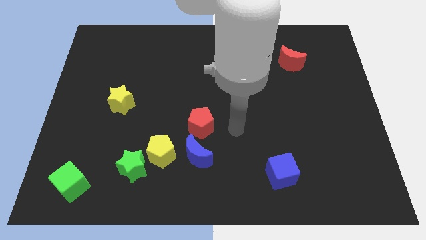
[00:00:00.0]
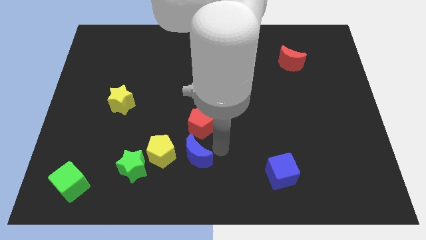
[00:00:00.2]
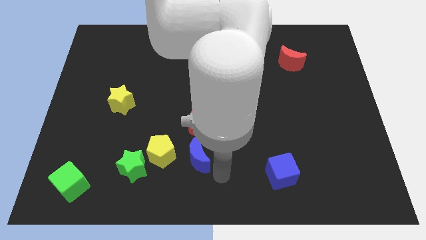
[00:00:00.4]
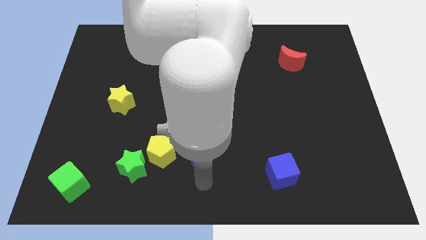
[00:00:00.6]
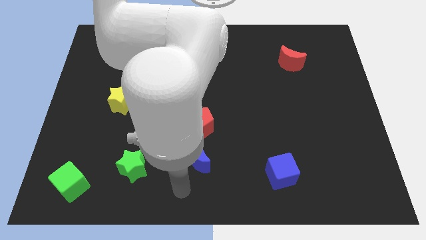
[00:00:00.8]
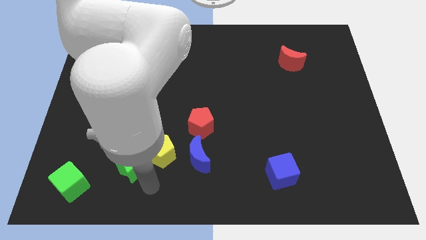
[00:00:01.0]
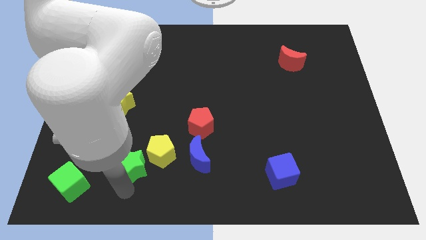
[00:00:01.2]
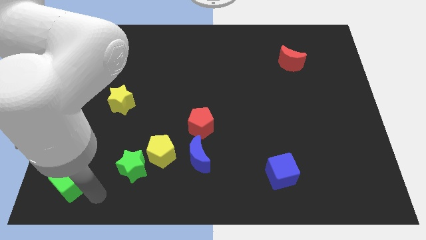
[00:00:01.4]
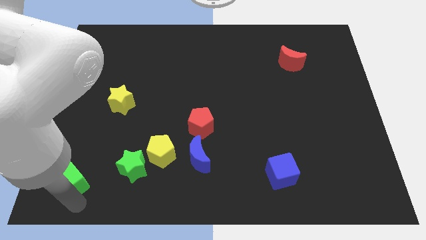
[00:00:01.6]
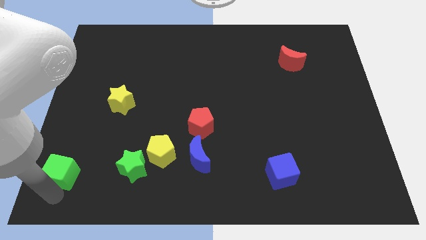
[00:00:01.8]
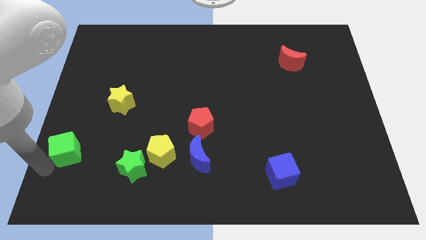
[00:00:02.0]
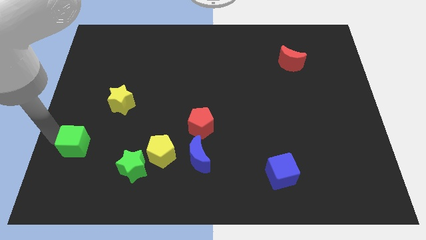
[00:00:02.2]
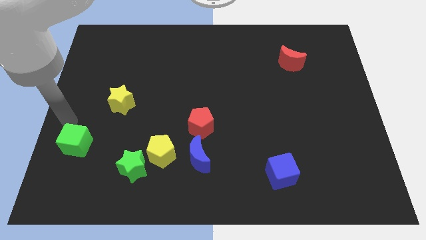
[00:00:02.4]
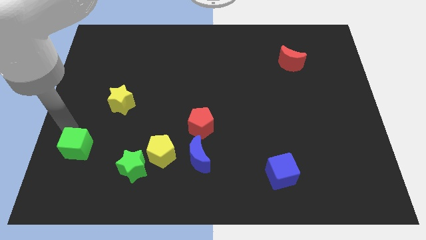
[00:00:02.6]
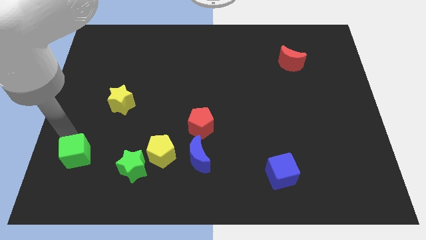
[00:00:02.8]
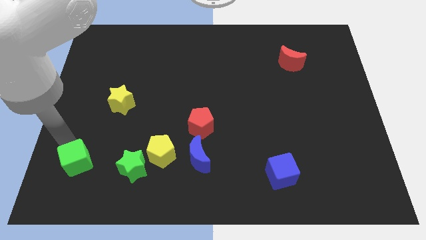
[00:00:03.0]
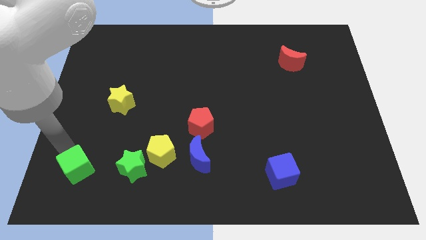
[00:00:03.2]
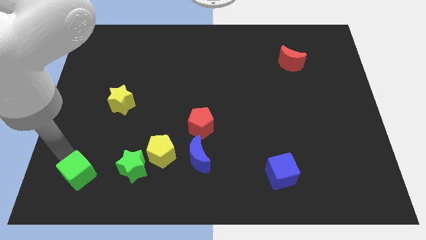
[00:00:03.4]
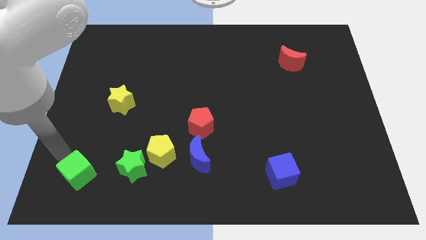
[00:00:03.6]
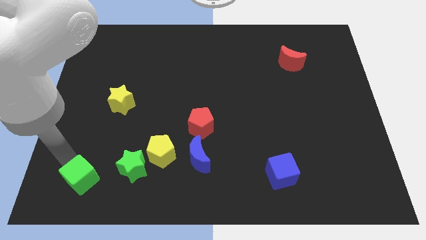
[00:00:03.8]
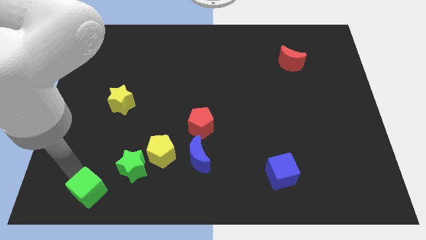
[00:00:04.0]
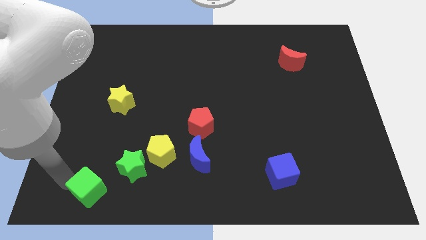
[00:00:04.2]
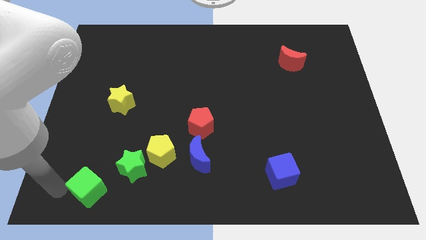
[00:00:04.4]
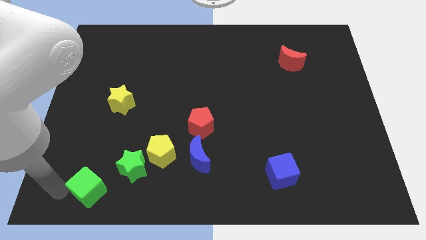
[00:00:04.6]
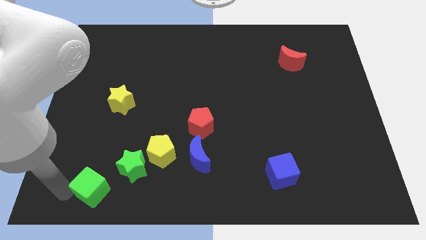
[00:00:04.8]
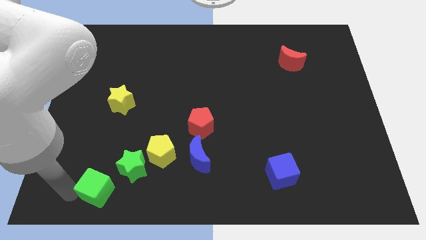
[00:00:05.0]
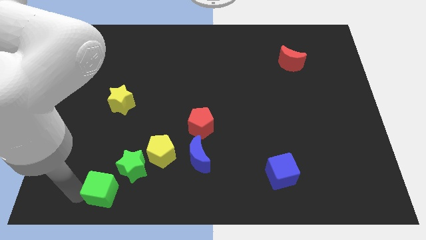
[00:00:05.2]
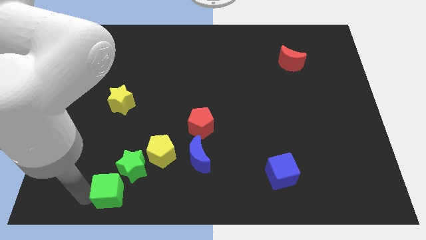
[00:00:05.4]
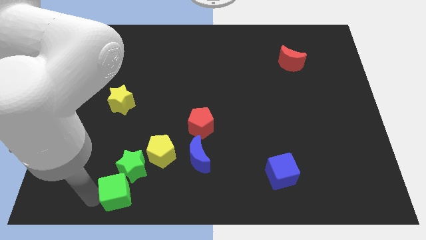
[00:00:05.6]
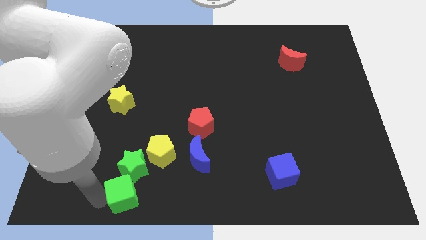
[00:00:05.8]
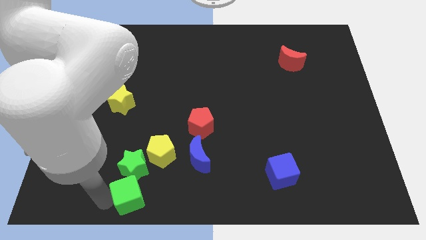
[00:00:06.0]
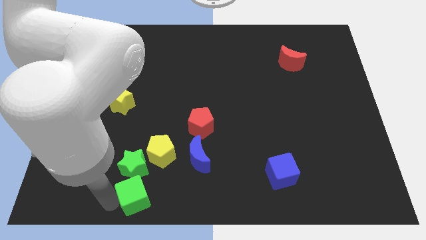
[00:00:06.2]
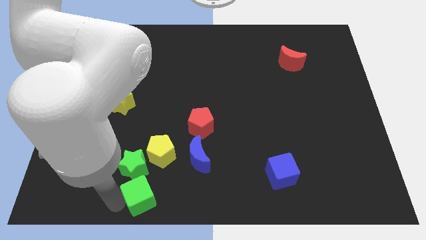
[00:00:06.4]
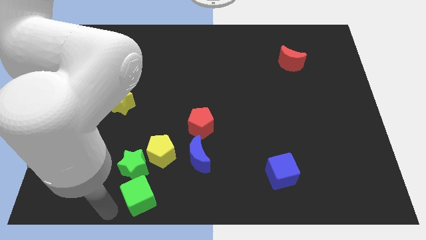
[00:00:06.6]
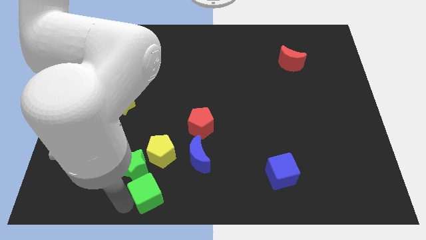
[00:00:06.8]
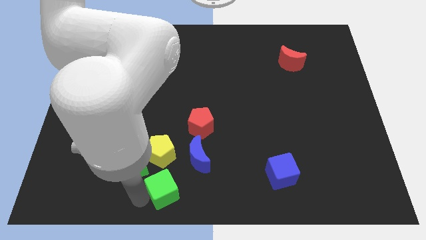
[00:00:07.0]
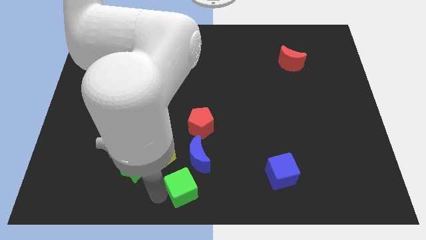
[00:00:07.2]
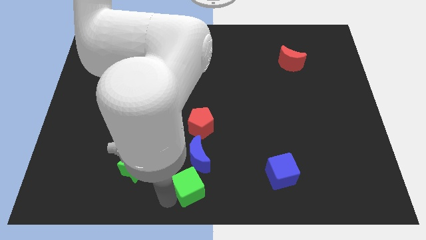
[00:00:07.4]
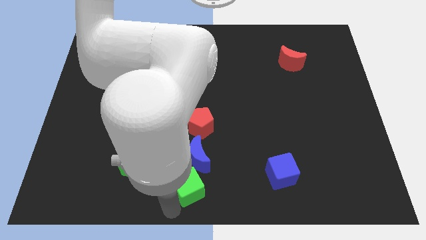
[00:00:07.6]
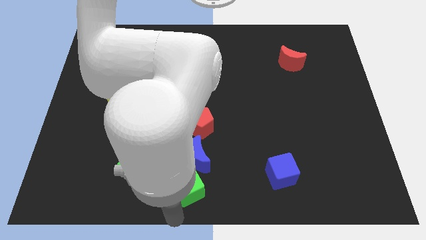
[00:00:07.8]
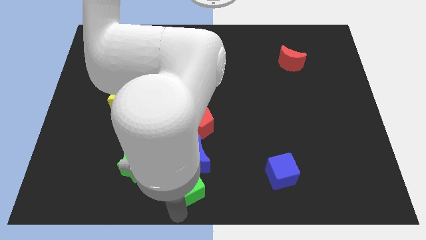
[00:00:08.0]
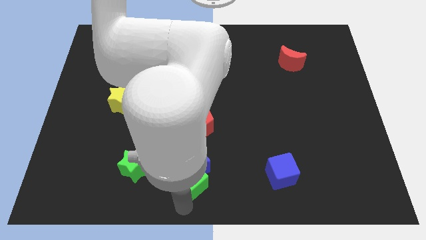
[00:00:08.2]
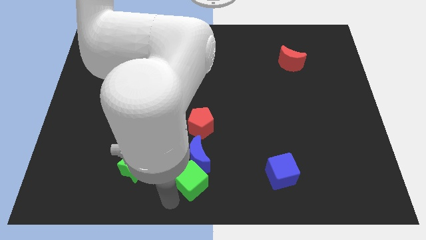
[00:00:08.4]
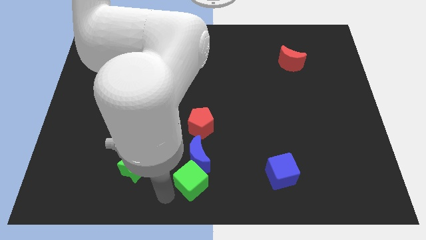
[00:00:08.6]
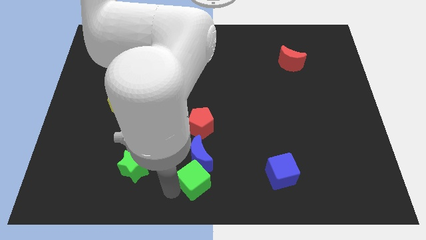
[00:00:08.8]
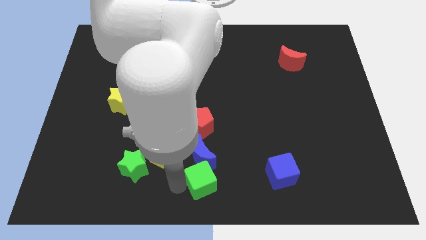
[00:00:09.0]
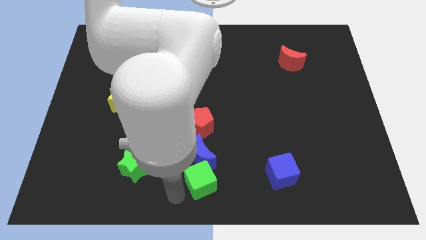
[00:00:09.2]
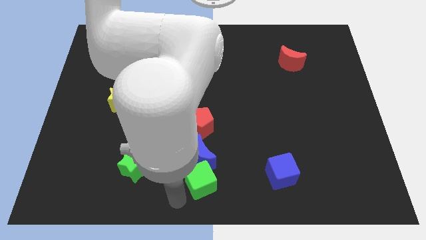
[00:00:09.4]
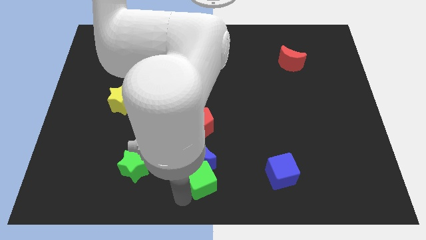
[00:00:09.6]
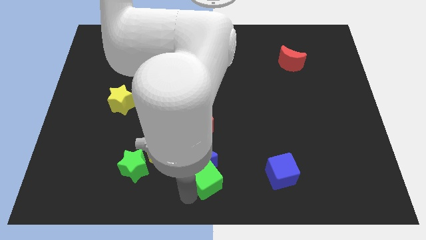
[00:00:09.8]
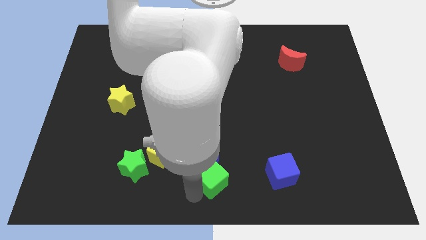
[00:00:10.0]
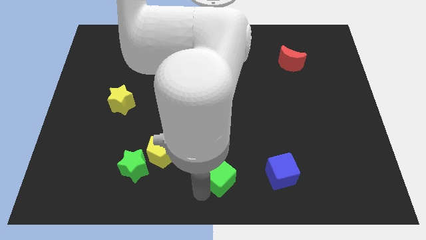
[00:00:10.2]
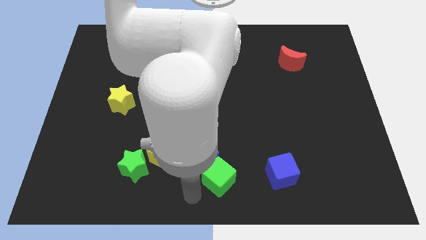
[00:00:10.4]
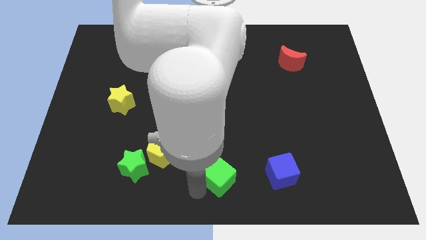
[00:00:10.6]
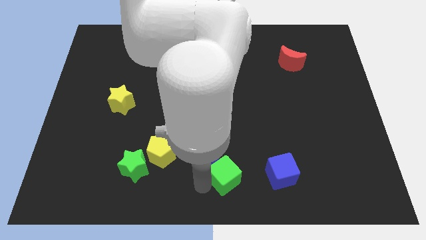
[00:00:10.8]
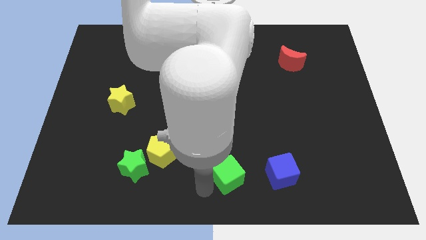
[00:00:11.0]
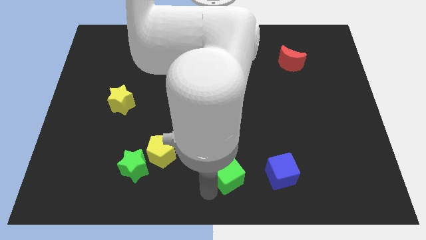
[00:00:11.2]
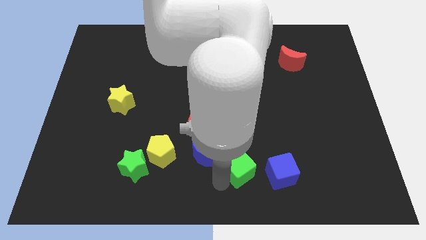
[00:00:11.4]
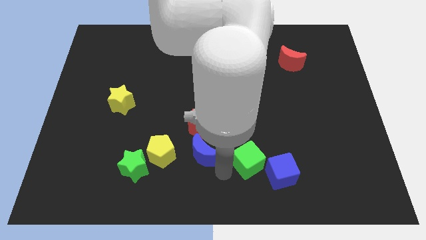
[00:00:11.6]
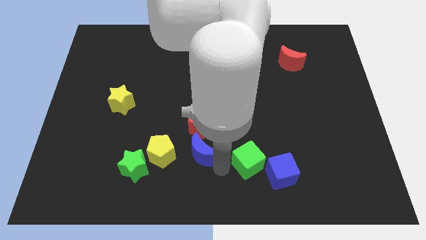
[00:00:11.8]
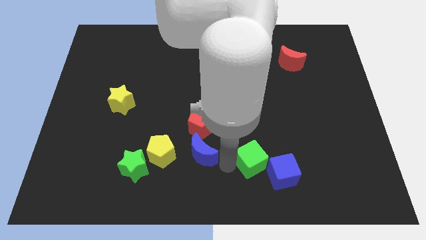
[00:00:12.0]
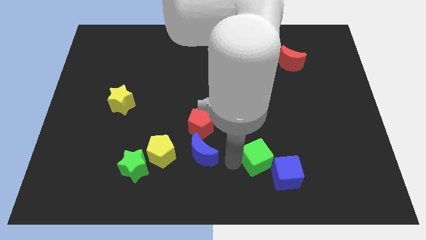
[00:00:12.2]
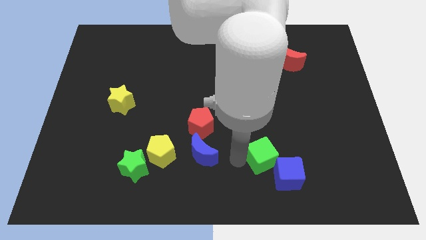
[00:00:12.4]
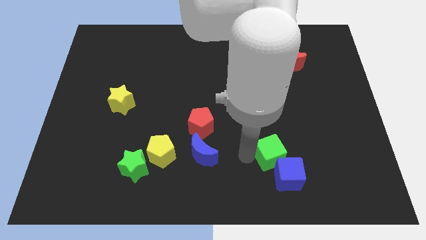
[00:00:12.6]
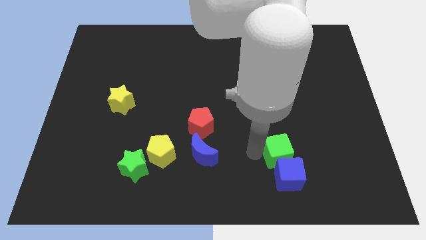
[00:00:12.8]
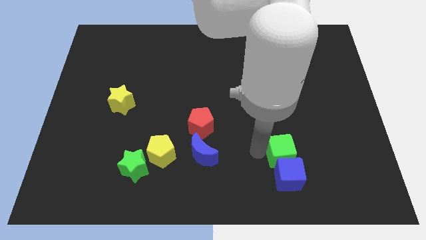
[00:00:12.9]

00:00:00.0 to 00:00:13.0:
slide the green cube diagonally up and to the right of the blue cube

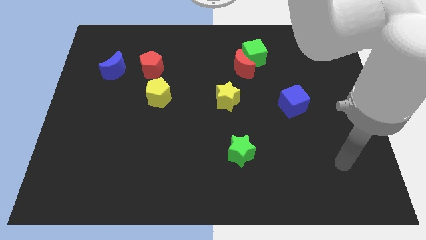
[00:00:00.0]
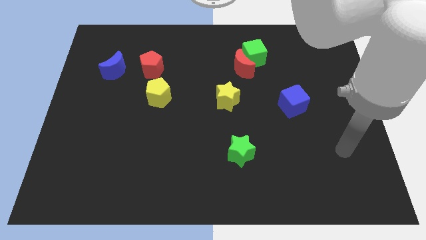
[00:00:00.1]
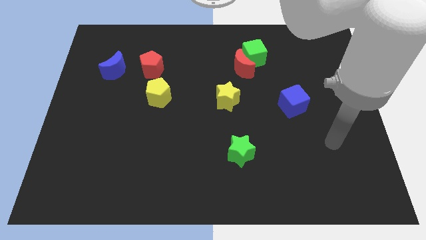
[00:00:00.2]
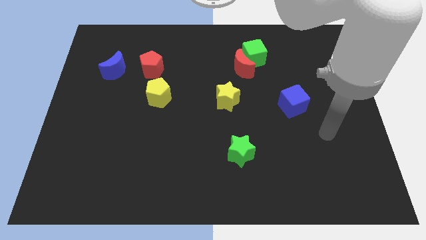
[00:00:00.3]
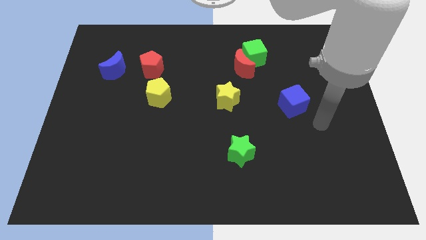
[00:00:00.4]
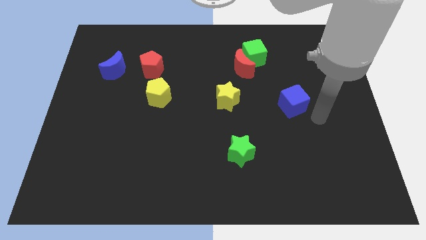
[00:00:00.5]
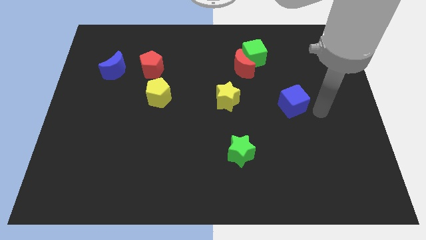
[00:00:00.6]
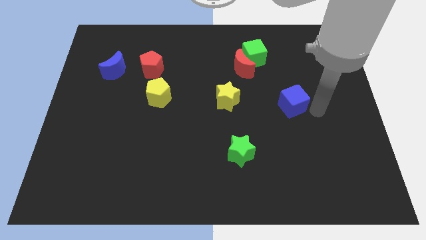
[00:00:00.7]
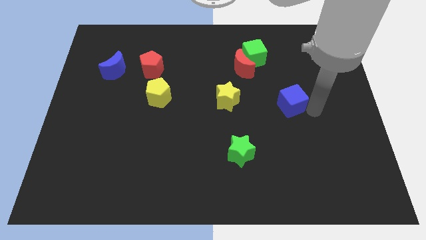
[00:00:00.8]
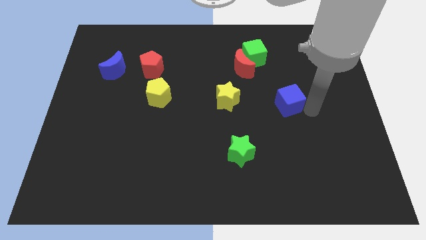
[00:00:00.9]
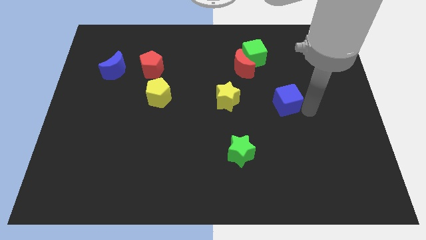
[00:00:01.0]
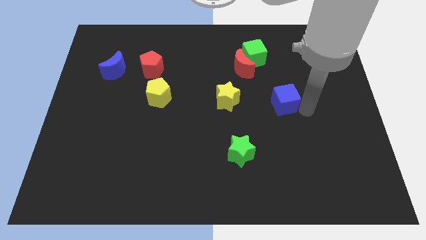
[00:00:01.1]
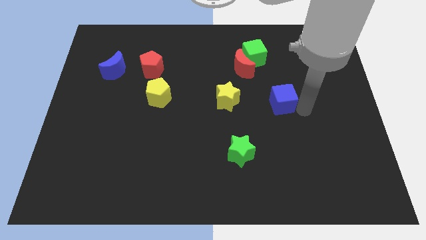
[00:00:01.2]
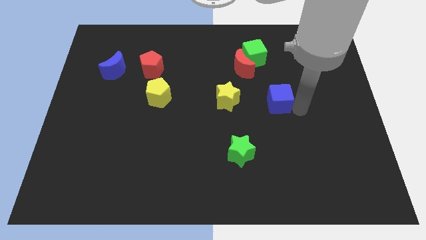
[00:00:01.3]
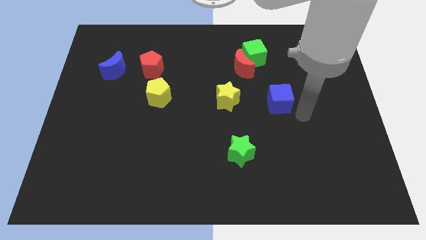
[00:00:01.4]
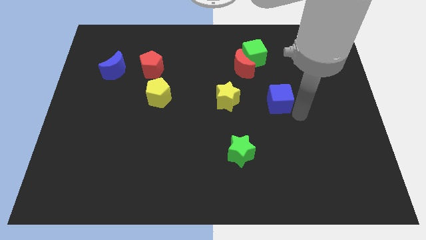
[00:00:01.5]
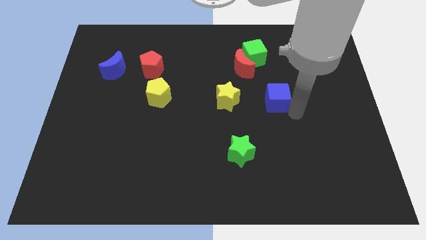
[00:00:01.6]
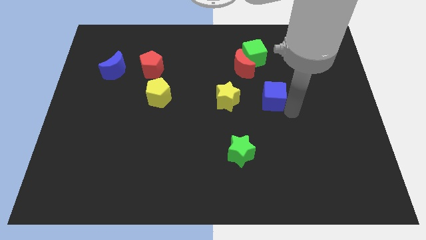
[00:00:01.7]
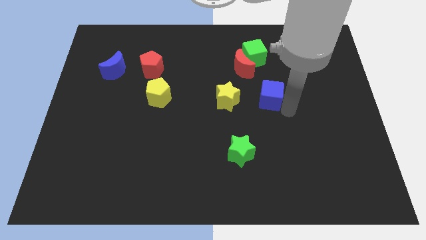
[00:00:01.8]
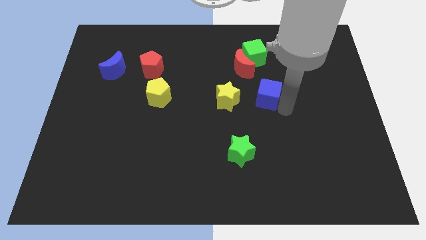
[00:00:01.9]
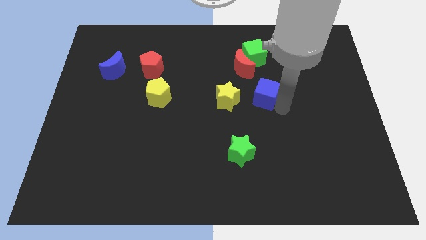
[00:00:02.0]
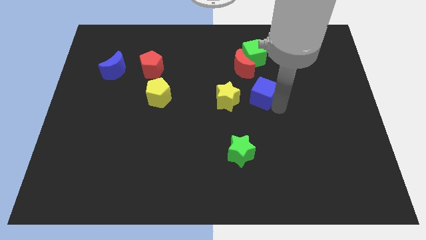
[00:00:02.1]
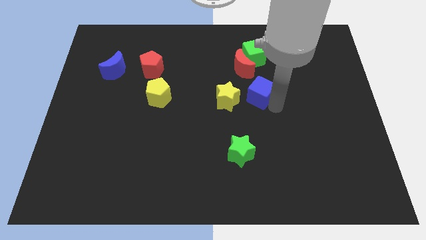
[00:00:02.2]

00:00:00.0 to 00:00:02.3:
move the blue cube to the top right side of the yellow star
